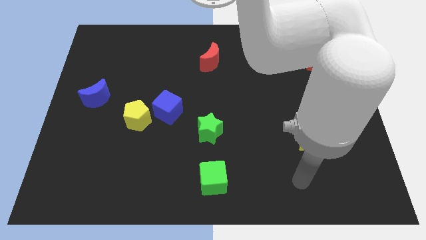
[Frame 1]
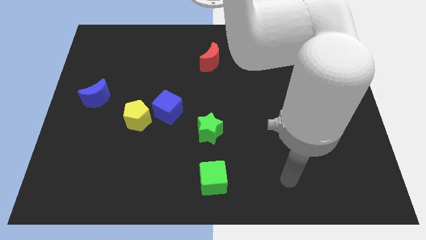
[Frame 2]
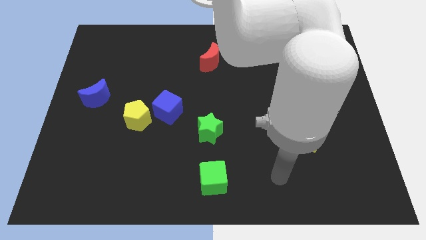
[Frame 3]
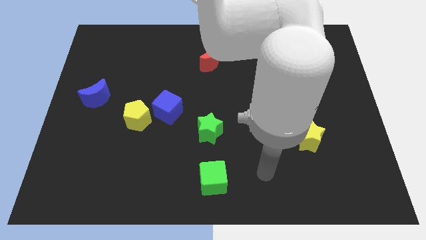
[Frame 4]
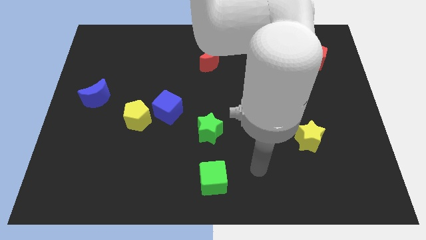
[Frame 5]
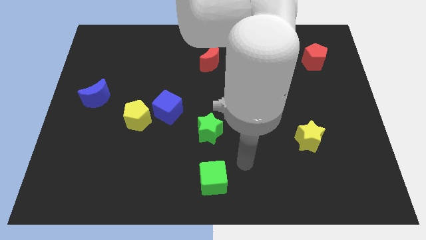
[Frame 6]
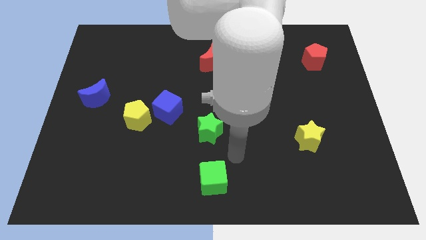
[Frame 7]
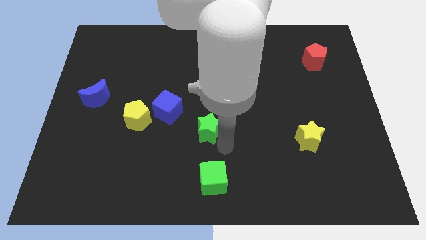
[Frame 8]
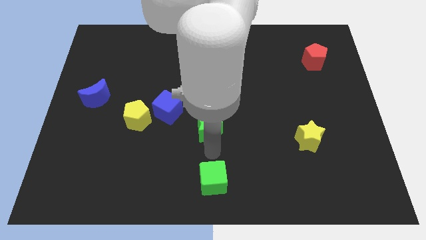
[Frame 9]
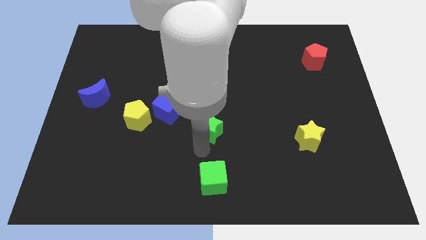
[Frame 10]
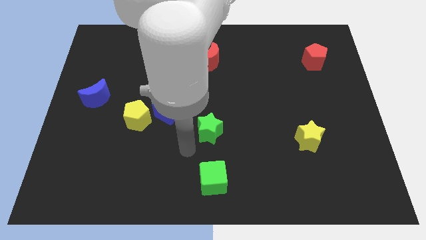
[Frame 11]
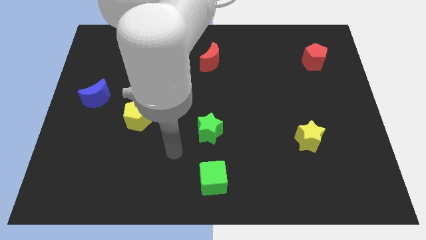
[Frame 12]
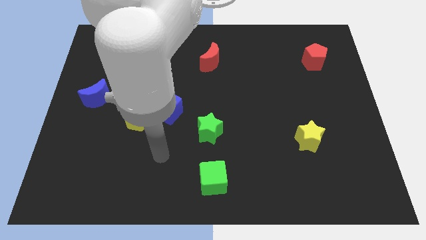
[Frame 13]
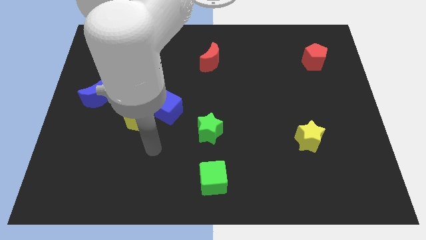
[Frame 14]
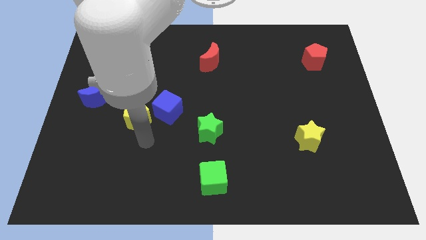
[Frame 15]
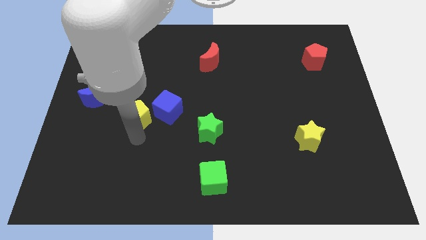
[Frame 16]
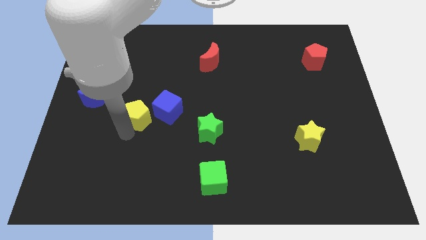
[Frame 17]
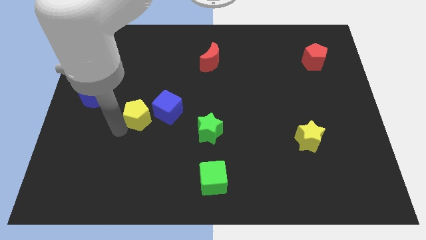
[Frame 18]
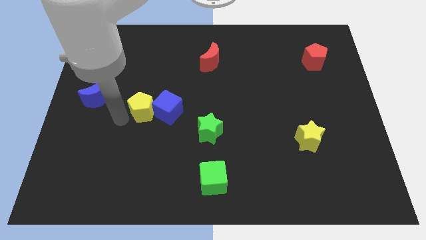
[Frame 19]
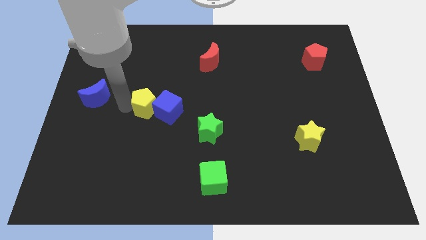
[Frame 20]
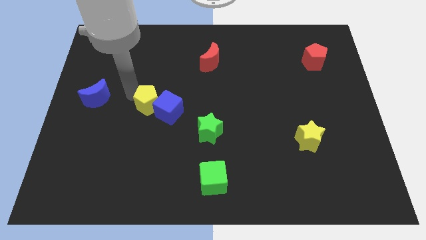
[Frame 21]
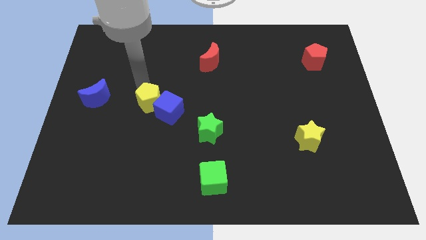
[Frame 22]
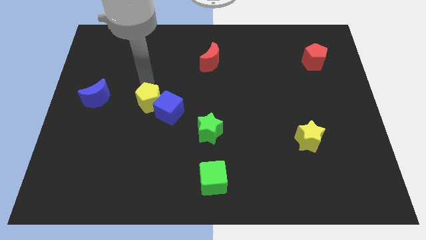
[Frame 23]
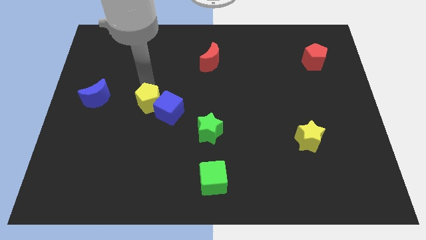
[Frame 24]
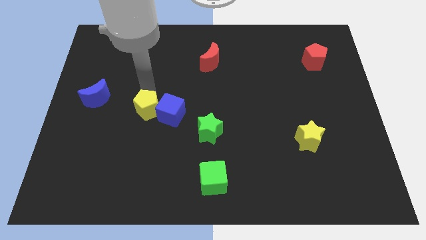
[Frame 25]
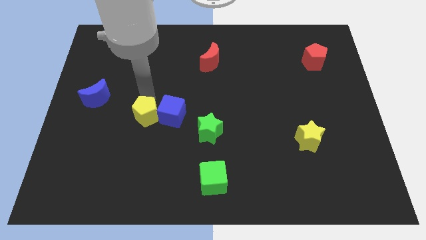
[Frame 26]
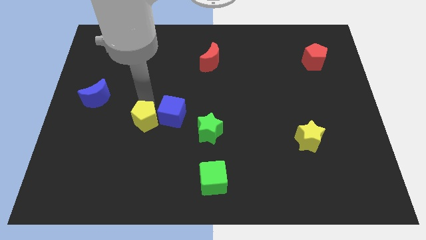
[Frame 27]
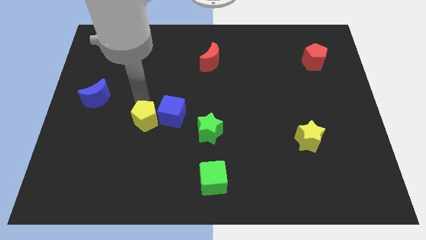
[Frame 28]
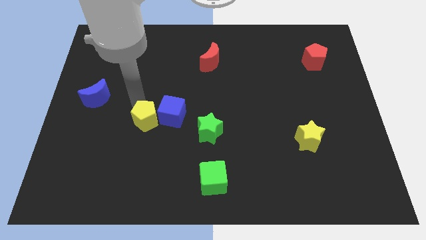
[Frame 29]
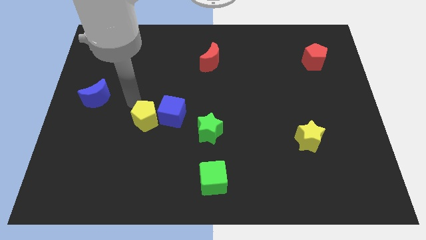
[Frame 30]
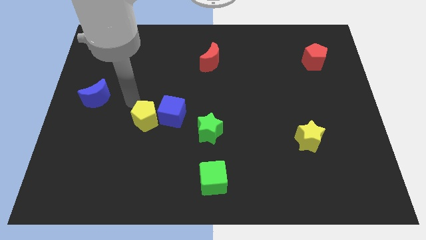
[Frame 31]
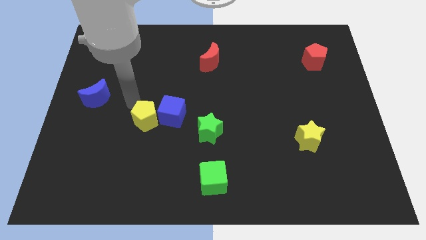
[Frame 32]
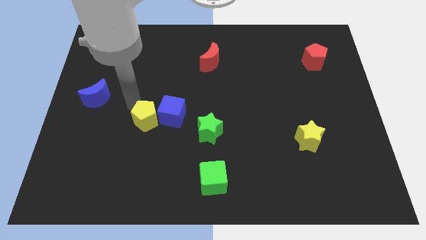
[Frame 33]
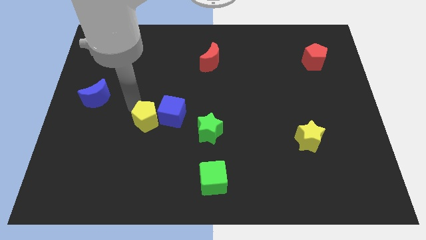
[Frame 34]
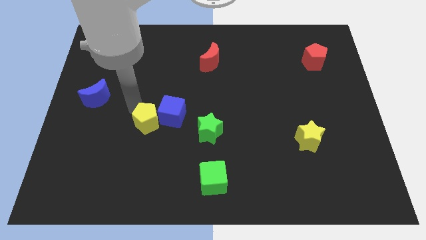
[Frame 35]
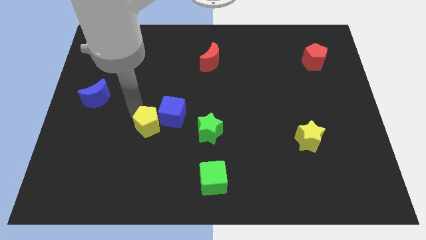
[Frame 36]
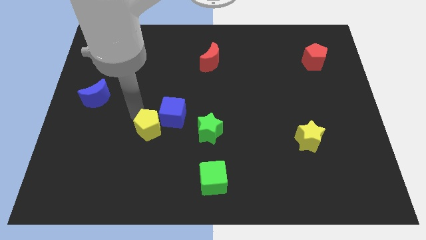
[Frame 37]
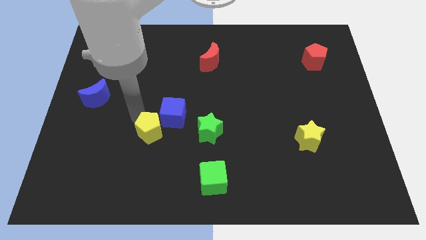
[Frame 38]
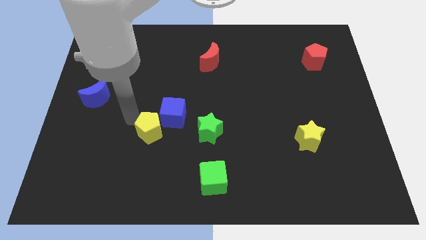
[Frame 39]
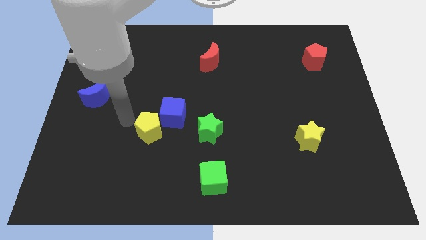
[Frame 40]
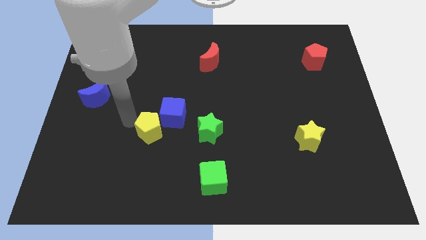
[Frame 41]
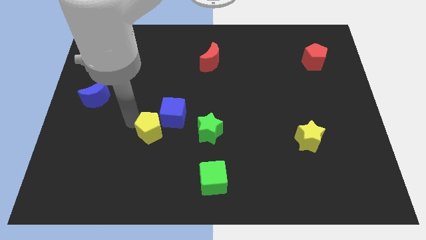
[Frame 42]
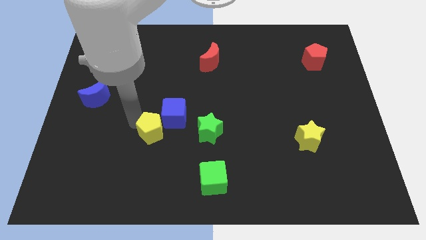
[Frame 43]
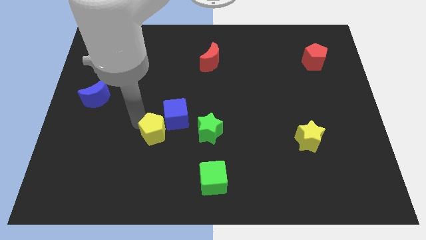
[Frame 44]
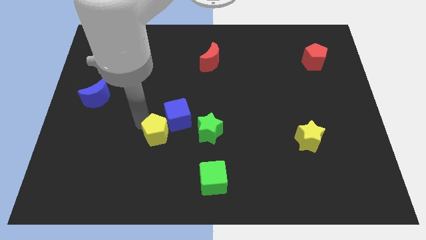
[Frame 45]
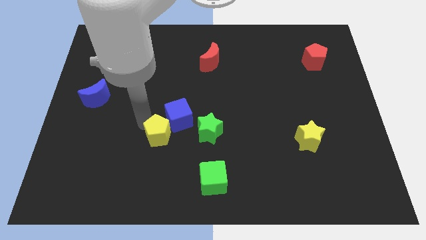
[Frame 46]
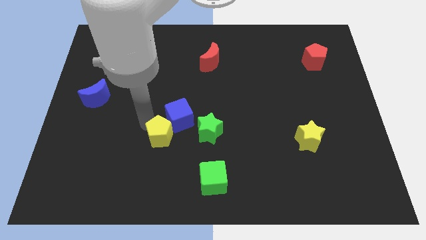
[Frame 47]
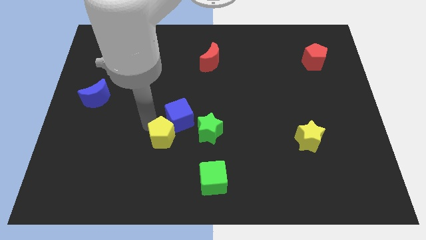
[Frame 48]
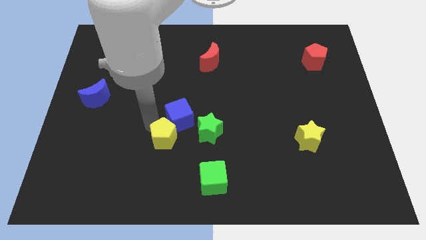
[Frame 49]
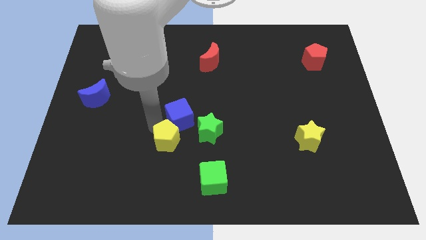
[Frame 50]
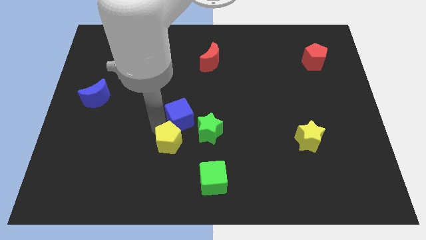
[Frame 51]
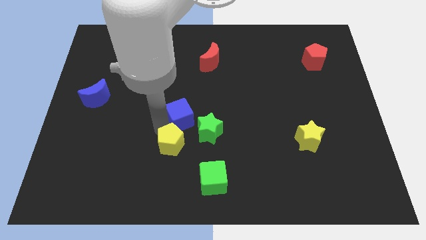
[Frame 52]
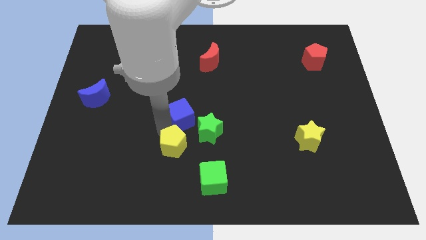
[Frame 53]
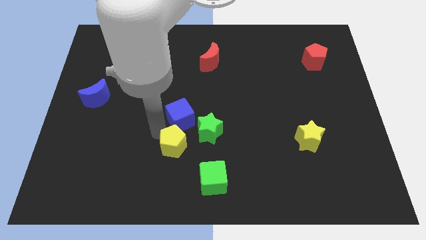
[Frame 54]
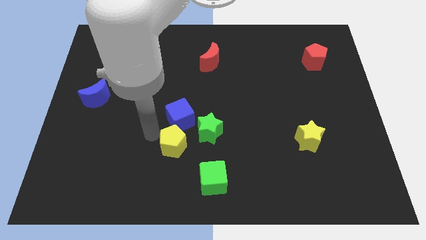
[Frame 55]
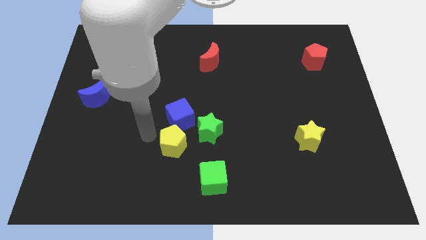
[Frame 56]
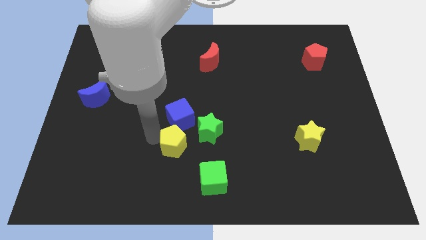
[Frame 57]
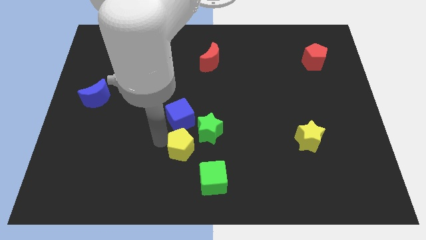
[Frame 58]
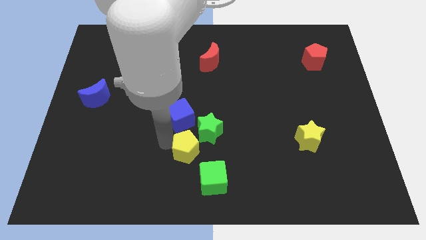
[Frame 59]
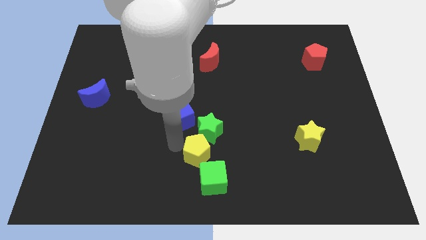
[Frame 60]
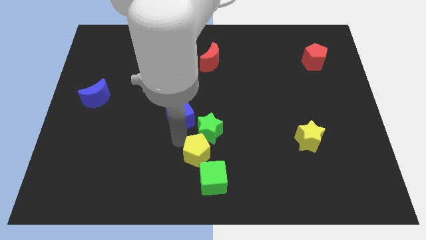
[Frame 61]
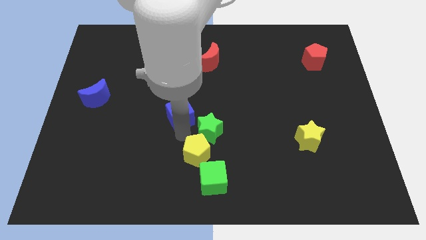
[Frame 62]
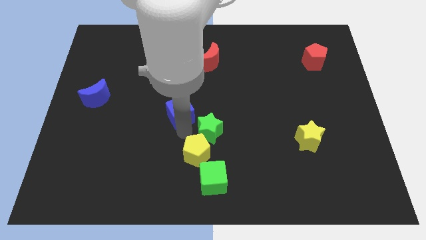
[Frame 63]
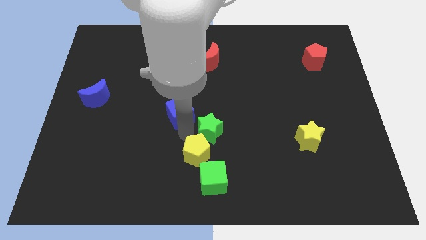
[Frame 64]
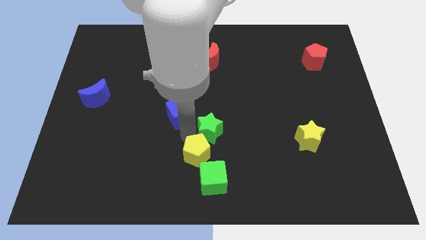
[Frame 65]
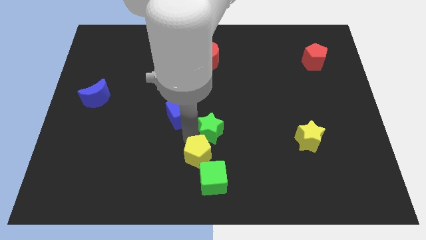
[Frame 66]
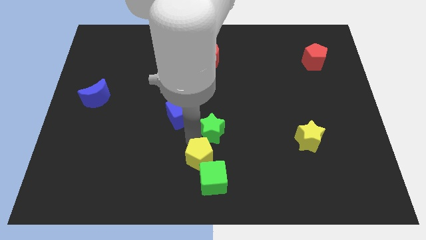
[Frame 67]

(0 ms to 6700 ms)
move the yellow pentagon next to the green cube

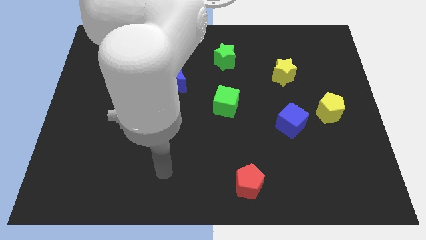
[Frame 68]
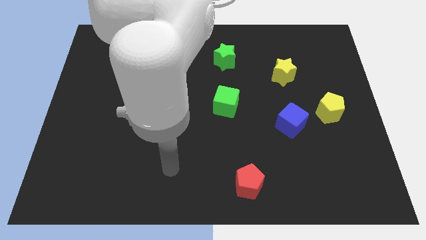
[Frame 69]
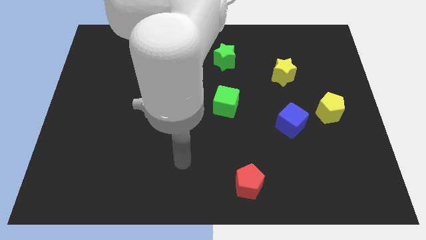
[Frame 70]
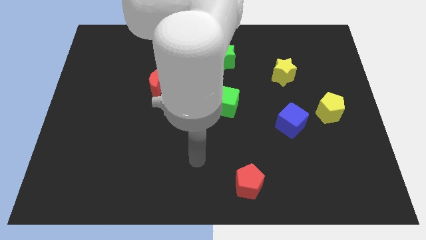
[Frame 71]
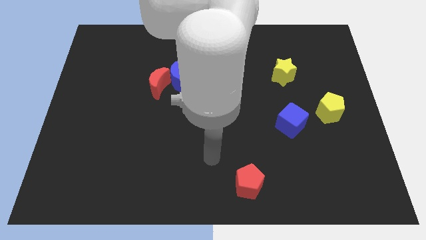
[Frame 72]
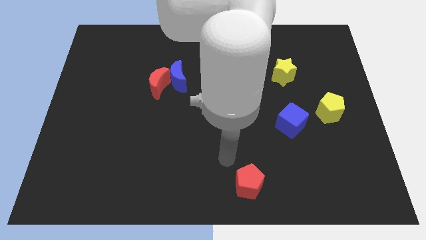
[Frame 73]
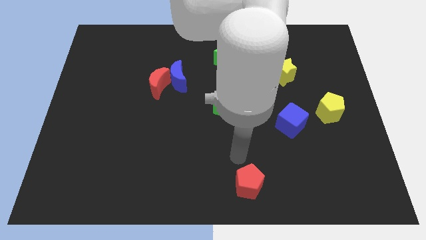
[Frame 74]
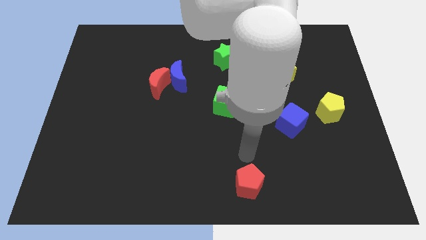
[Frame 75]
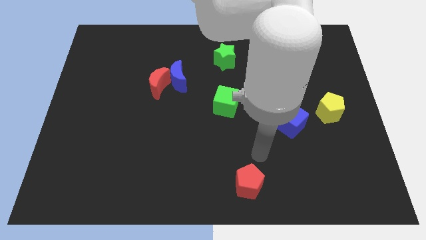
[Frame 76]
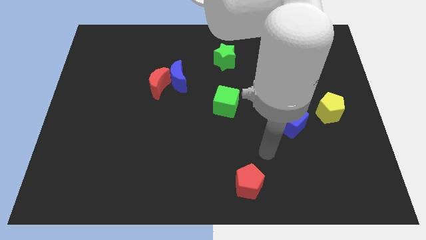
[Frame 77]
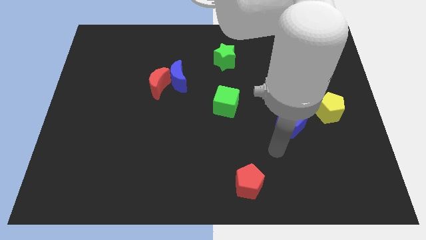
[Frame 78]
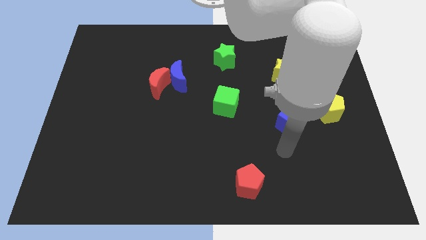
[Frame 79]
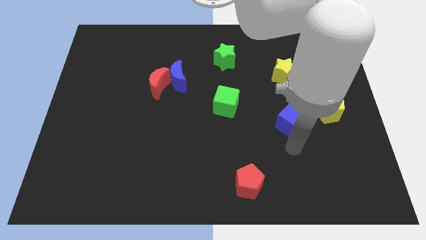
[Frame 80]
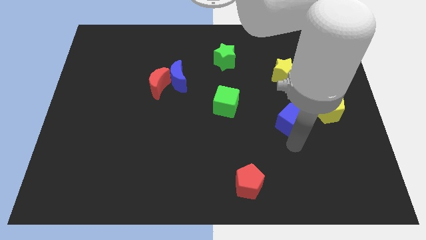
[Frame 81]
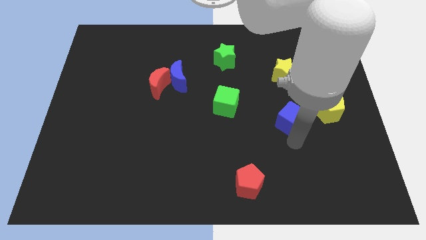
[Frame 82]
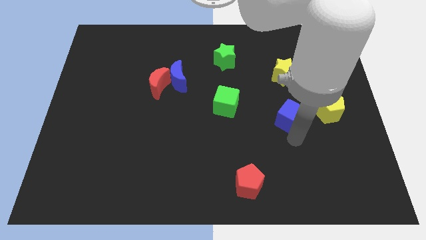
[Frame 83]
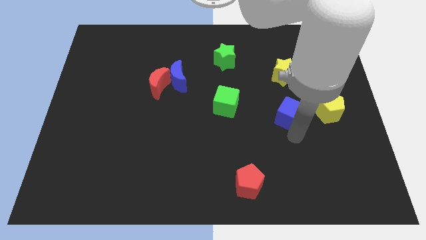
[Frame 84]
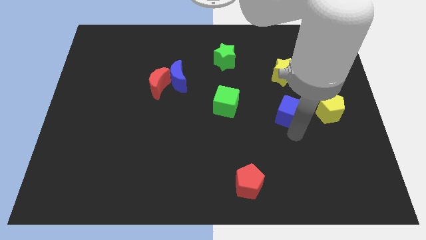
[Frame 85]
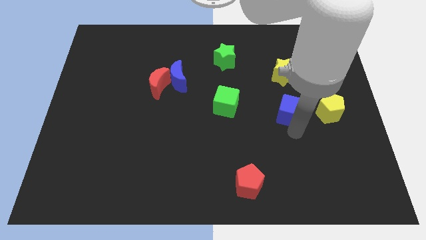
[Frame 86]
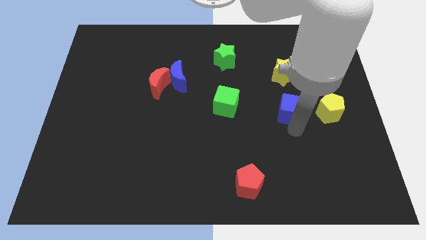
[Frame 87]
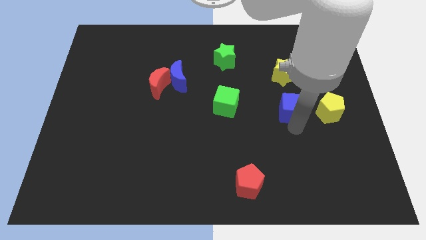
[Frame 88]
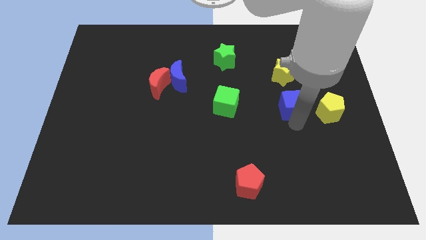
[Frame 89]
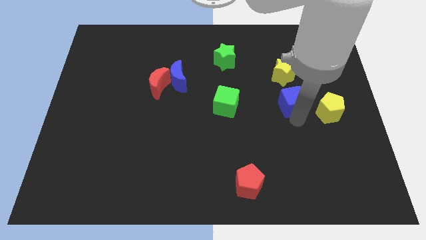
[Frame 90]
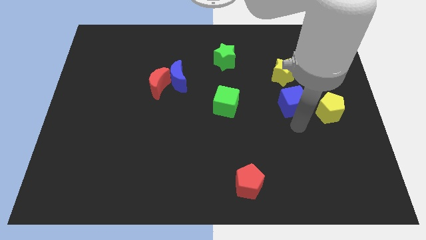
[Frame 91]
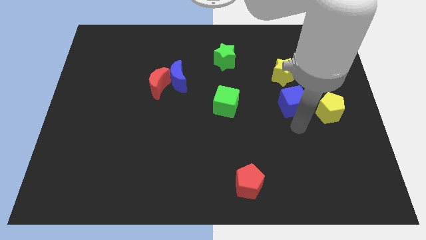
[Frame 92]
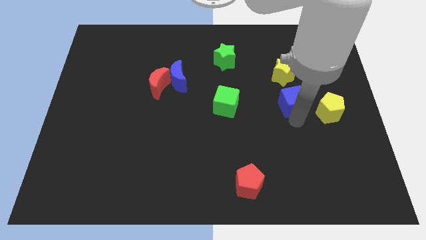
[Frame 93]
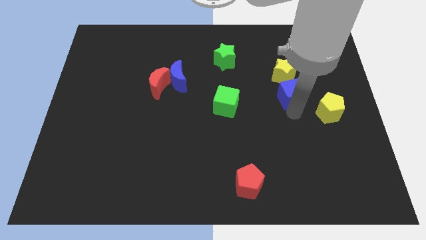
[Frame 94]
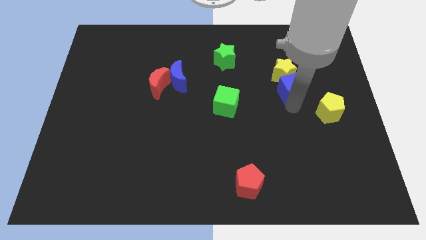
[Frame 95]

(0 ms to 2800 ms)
push the blue cube to the yellow star
